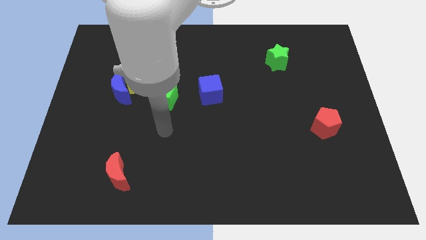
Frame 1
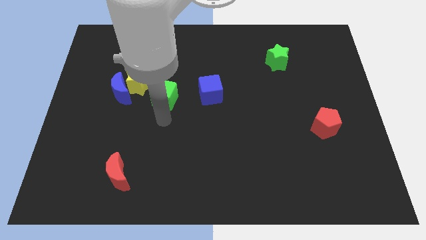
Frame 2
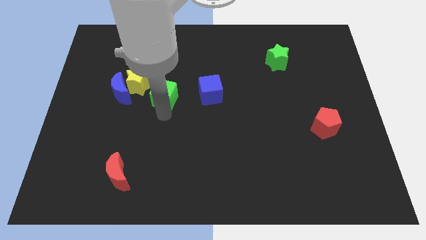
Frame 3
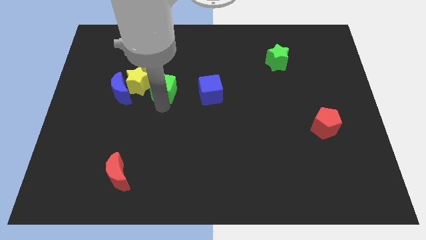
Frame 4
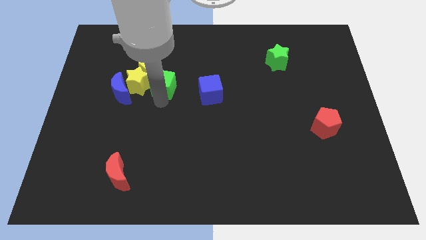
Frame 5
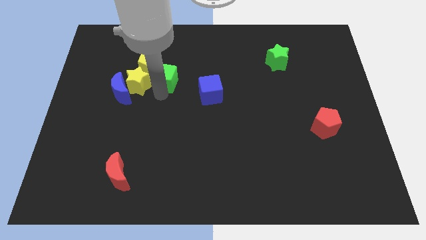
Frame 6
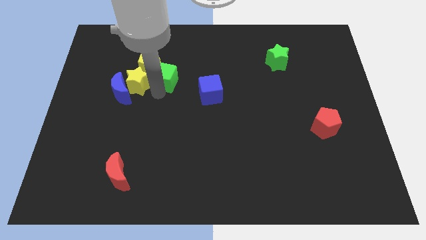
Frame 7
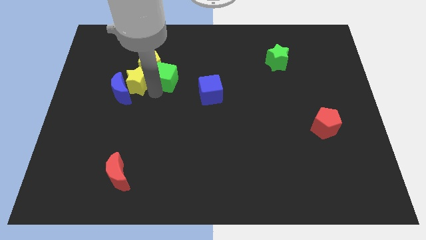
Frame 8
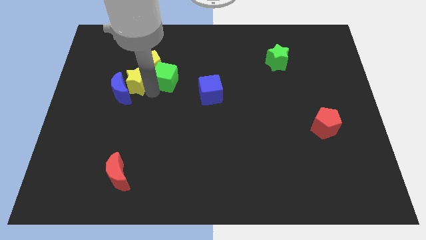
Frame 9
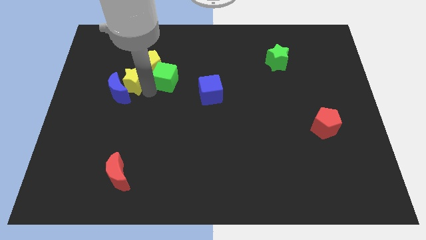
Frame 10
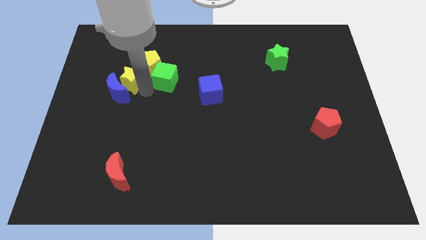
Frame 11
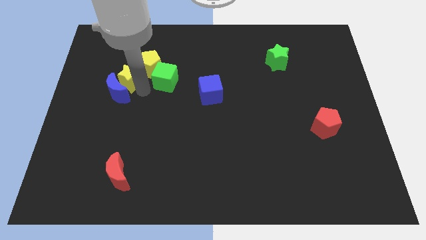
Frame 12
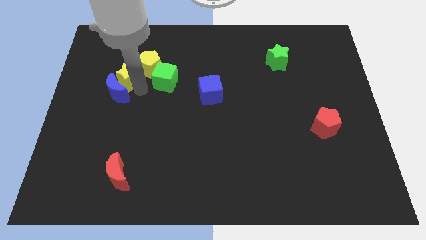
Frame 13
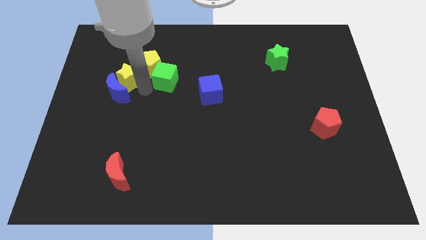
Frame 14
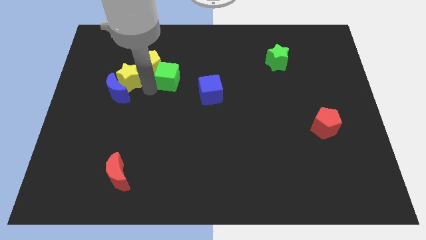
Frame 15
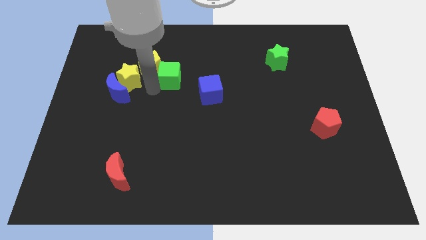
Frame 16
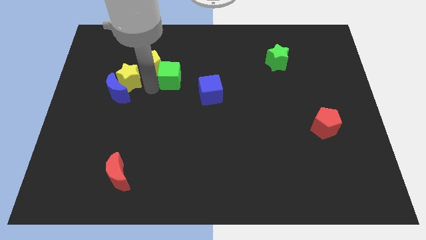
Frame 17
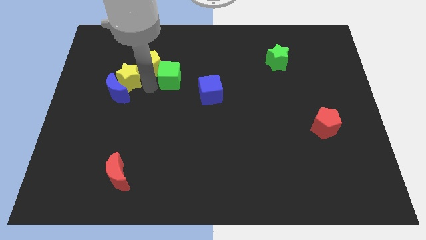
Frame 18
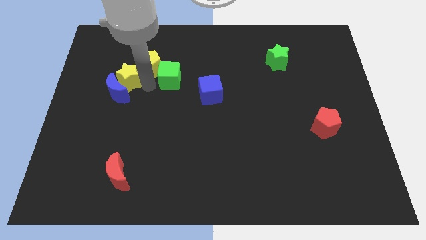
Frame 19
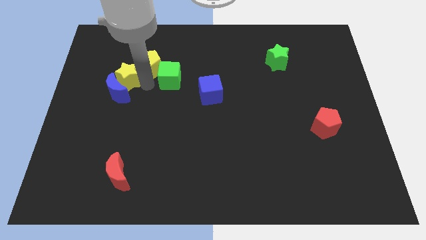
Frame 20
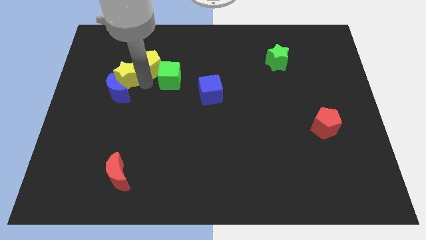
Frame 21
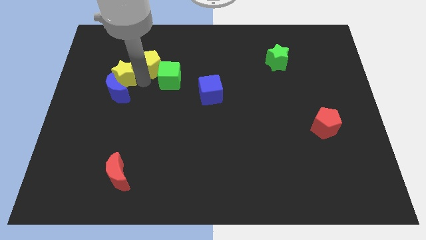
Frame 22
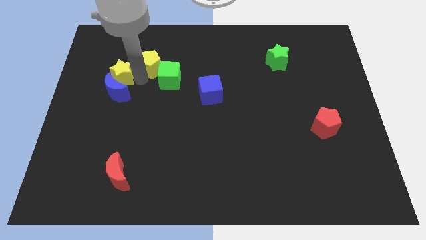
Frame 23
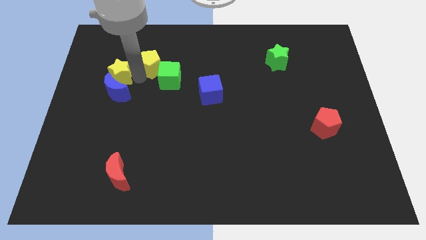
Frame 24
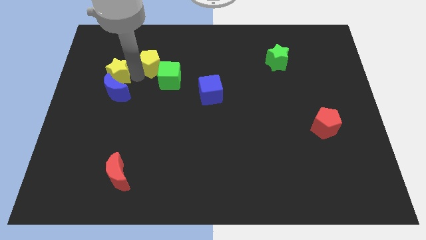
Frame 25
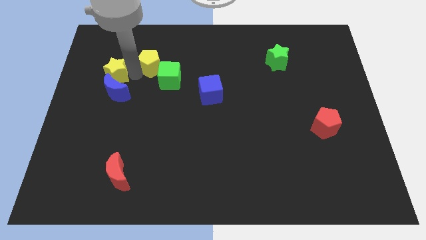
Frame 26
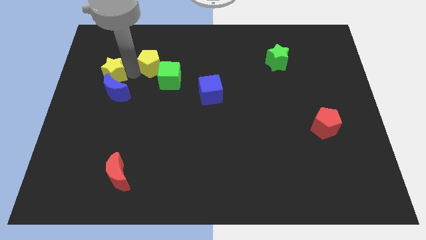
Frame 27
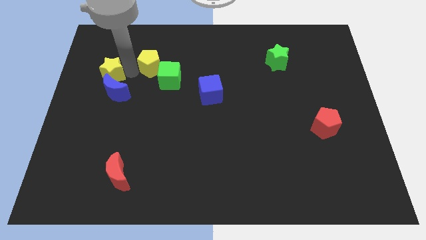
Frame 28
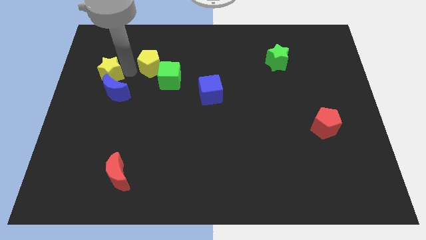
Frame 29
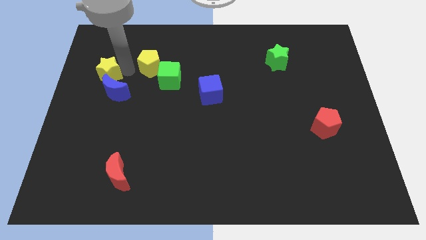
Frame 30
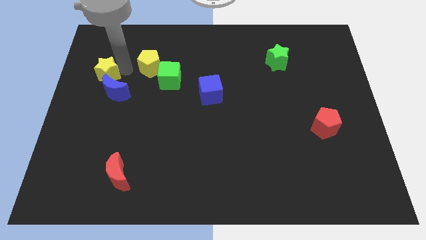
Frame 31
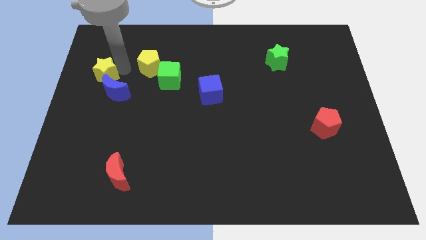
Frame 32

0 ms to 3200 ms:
pull the yellow star apart from the blue moon, yellow pentagon, and green cube

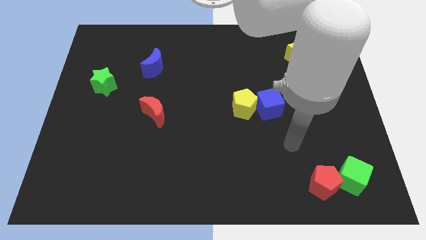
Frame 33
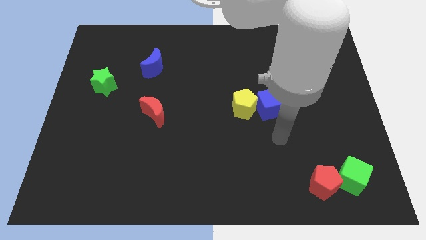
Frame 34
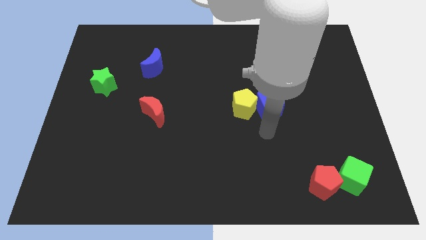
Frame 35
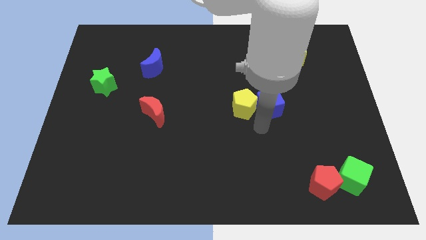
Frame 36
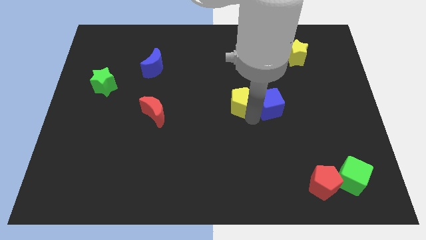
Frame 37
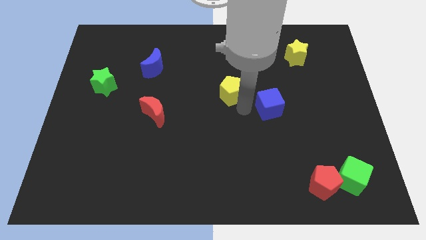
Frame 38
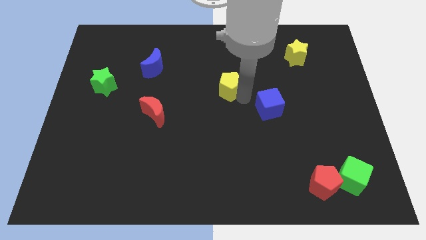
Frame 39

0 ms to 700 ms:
move the blue cube away from the yellow pentagon

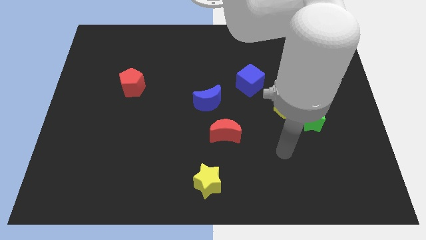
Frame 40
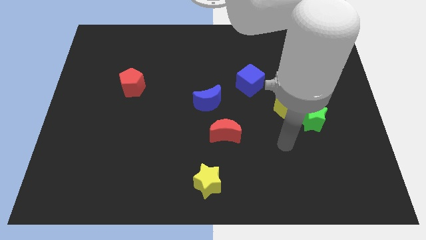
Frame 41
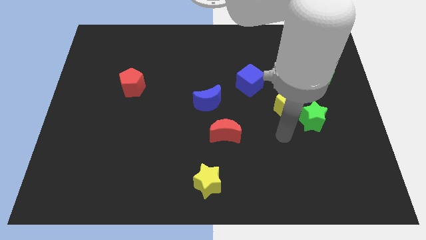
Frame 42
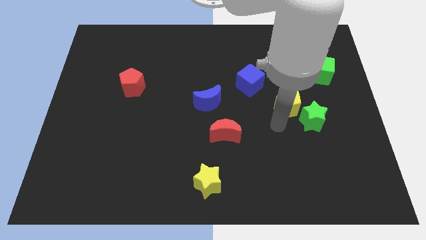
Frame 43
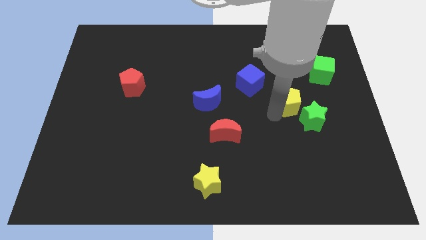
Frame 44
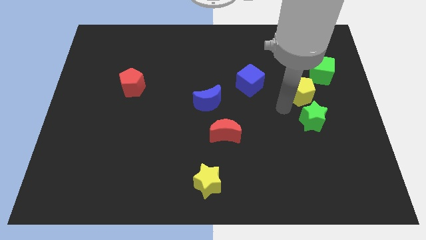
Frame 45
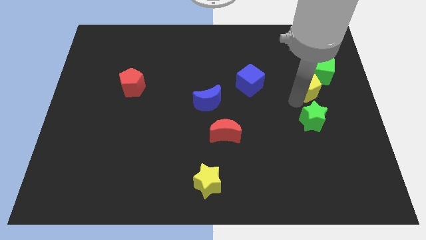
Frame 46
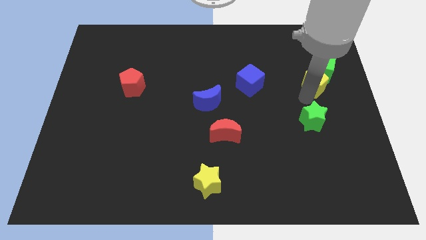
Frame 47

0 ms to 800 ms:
move the green star away from the yellow pentagon

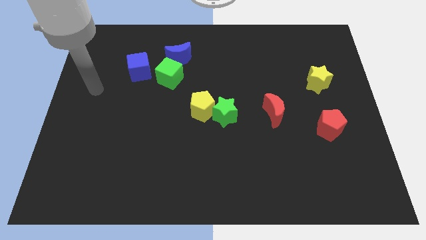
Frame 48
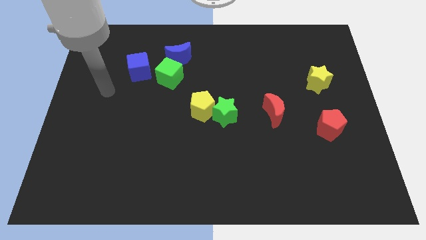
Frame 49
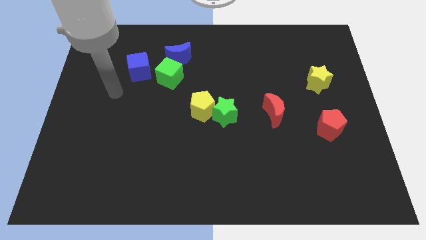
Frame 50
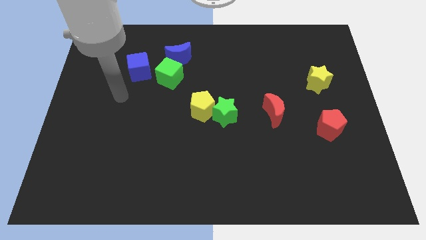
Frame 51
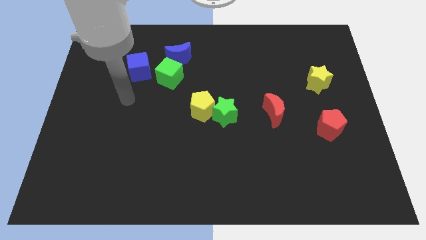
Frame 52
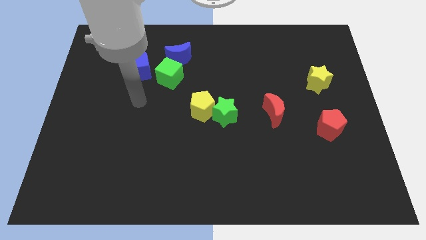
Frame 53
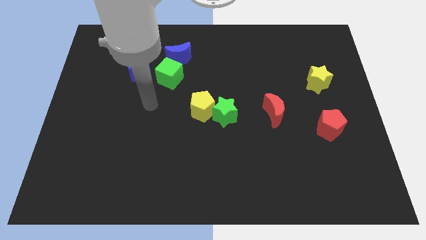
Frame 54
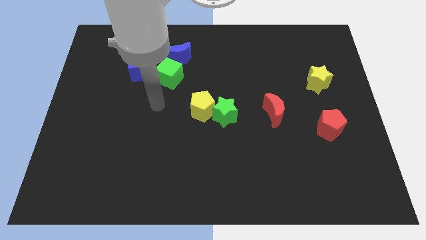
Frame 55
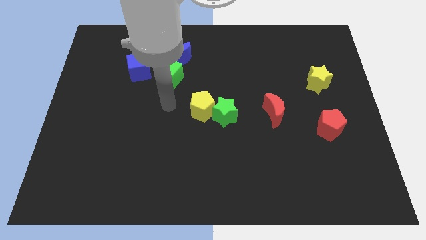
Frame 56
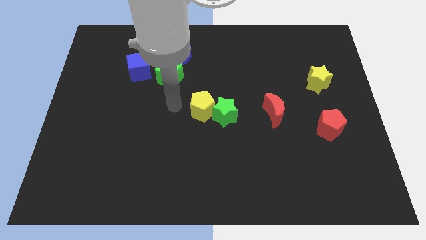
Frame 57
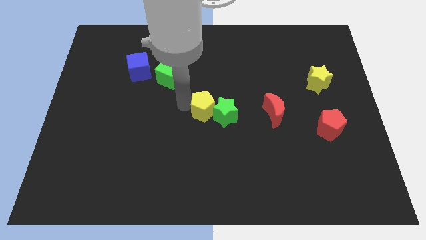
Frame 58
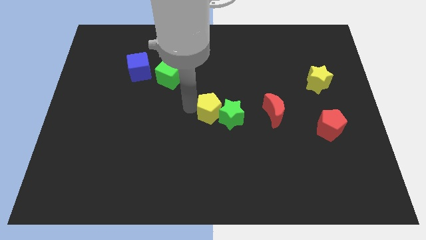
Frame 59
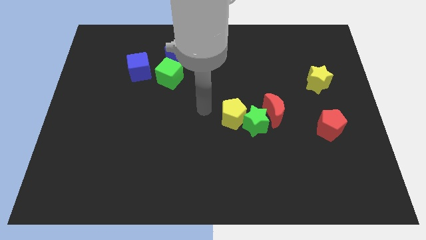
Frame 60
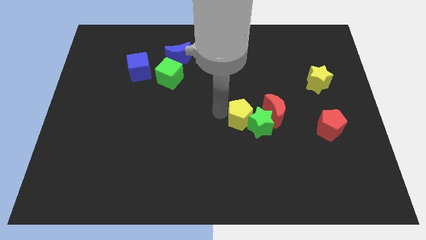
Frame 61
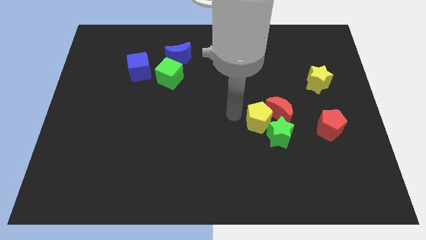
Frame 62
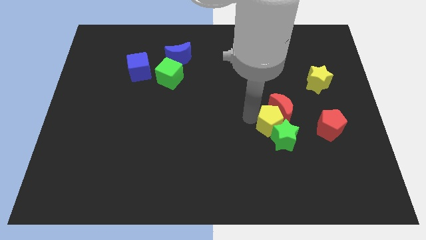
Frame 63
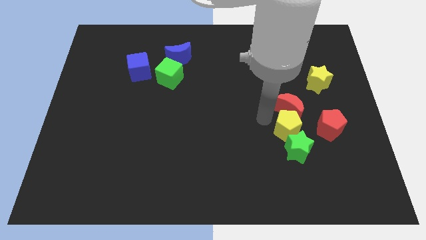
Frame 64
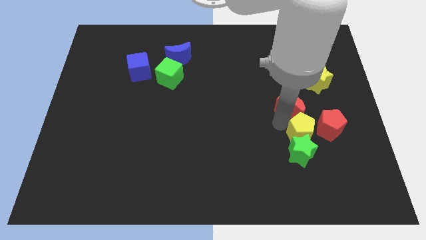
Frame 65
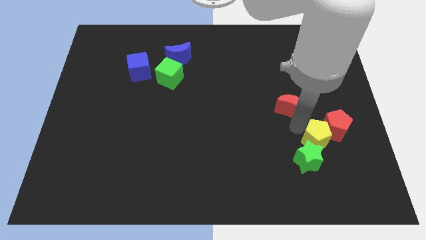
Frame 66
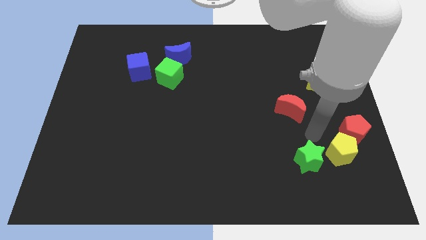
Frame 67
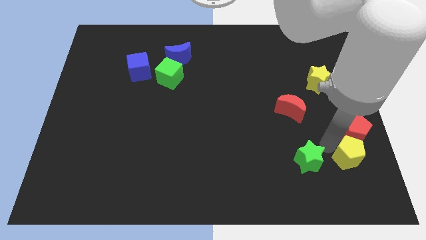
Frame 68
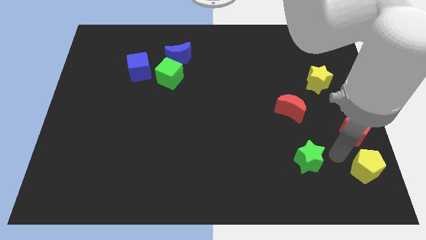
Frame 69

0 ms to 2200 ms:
separate the green star from the yellow pentagon

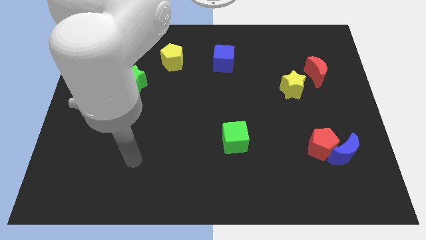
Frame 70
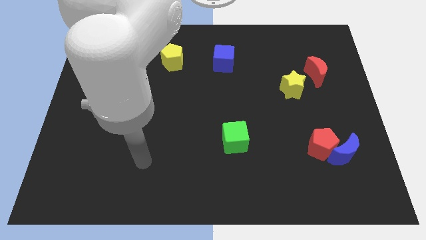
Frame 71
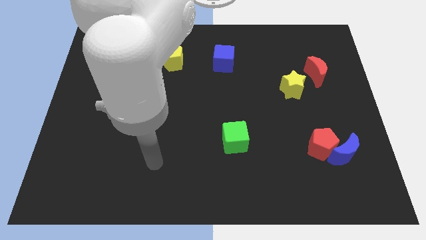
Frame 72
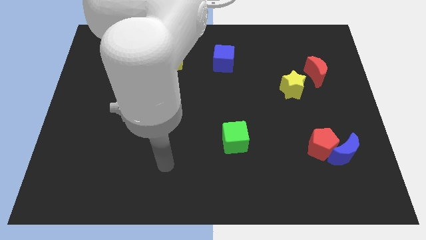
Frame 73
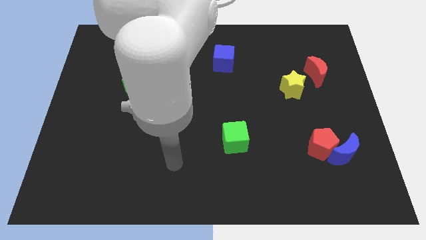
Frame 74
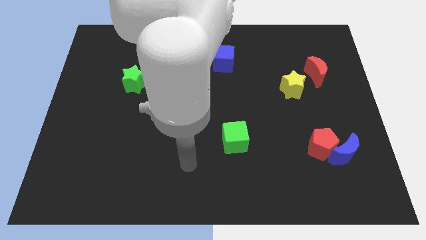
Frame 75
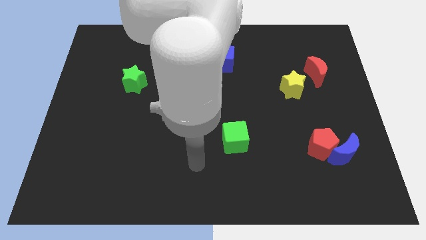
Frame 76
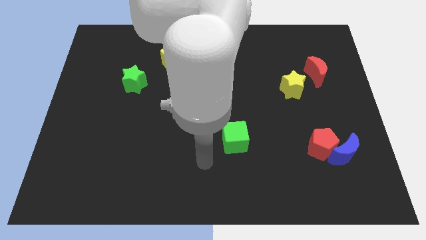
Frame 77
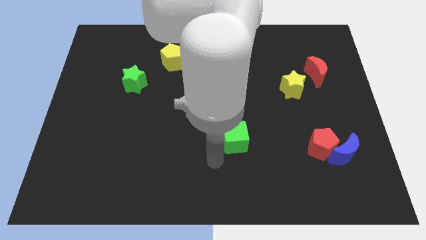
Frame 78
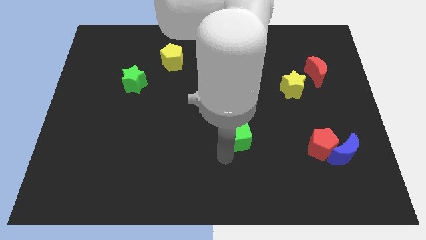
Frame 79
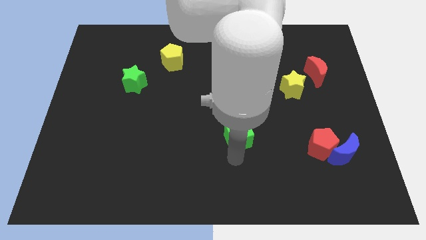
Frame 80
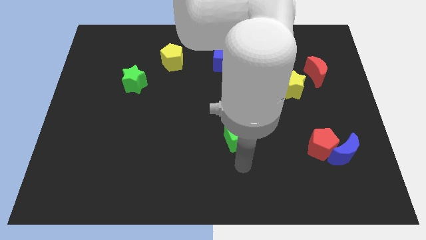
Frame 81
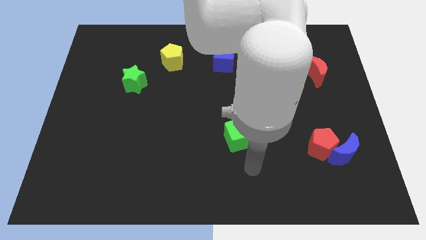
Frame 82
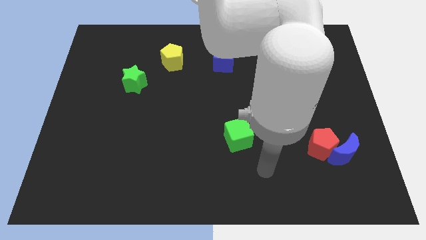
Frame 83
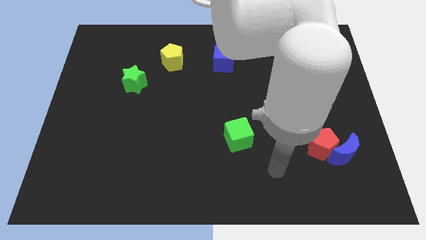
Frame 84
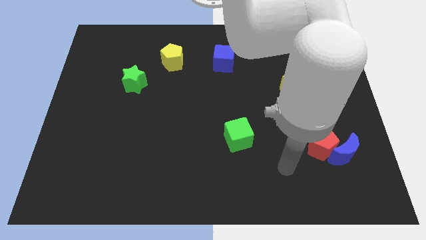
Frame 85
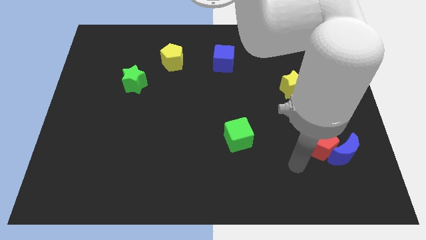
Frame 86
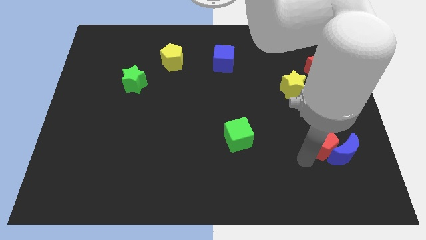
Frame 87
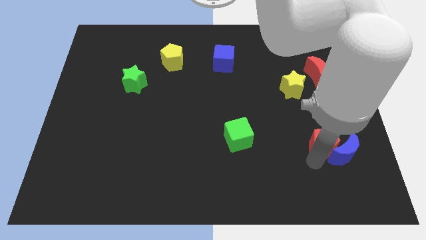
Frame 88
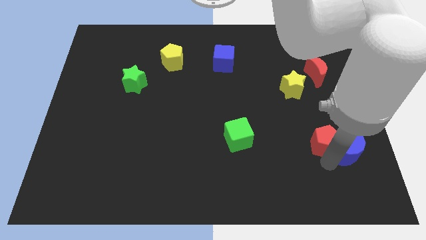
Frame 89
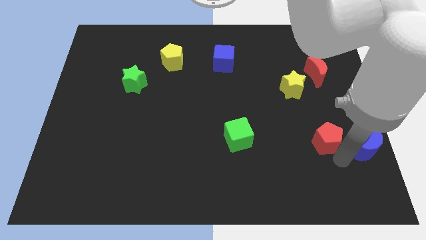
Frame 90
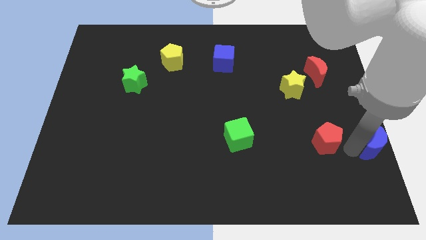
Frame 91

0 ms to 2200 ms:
pull the red pentagon apart from the blue moon

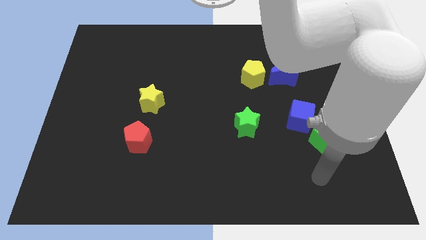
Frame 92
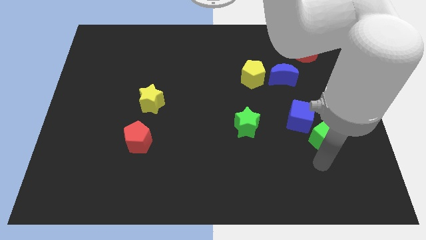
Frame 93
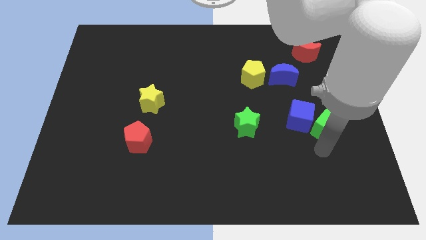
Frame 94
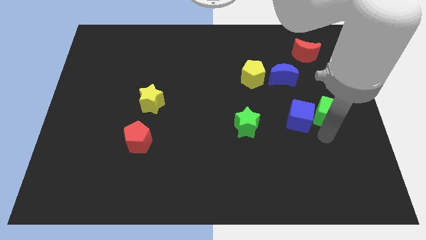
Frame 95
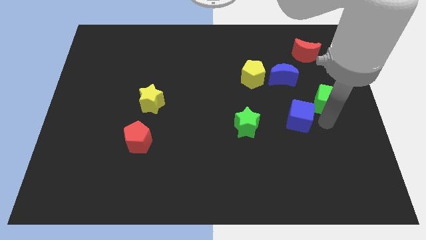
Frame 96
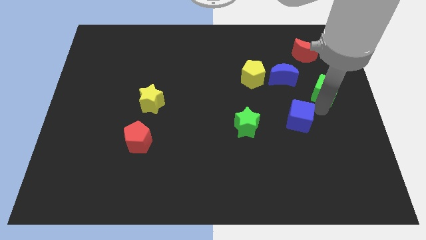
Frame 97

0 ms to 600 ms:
pull the blue cube apart from the green cube
